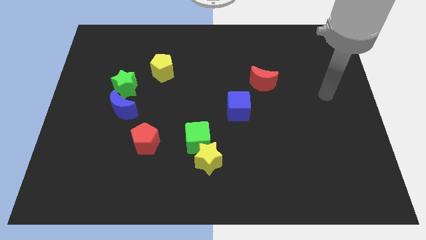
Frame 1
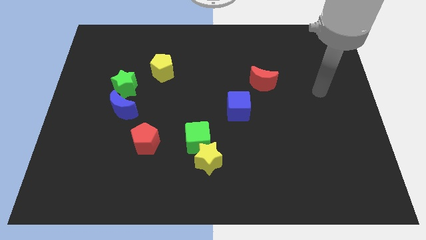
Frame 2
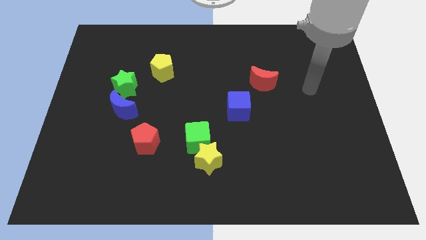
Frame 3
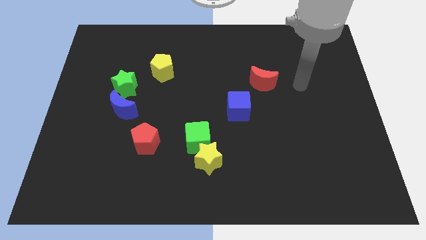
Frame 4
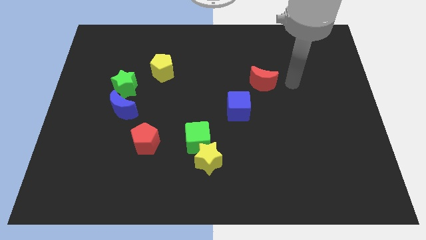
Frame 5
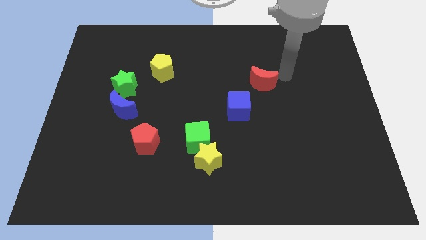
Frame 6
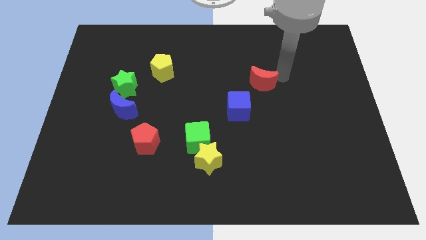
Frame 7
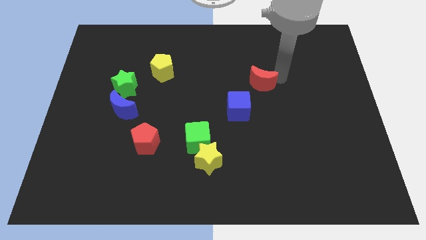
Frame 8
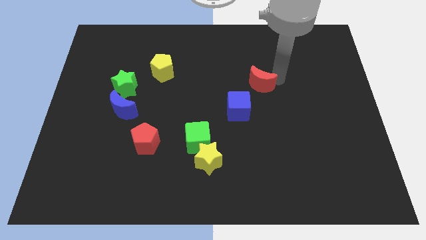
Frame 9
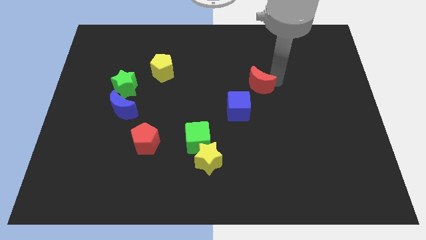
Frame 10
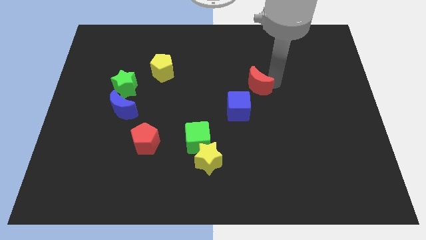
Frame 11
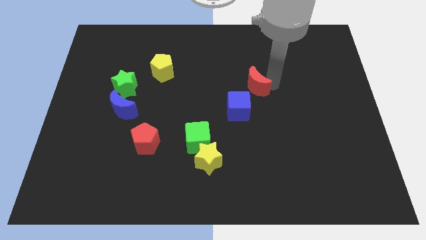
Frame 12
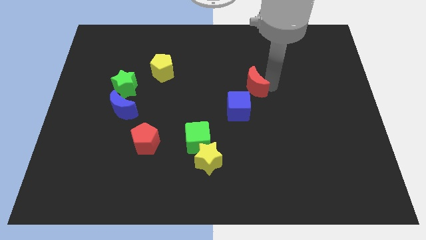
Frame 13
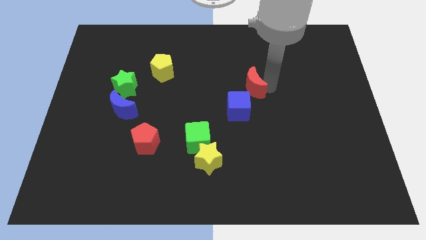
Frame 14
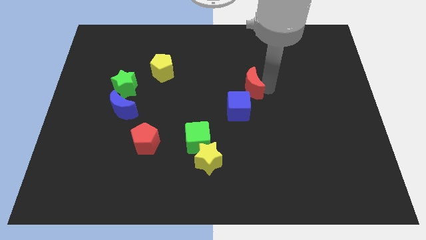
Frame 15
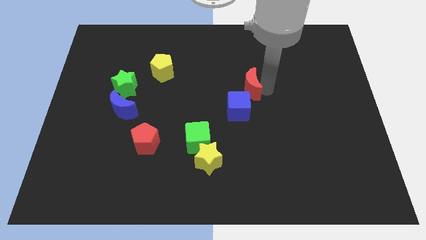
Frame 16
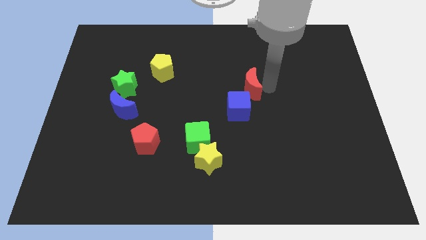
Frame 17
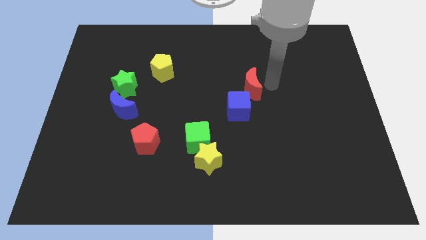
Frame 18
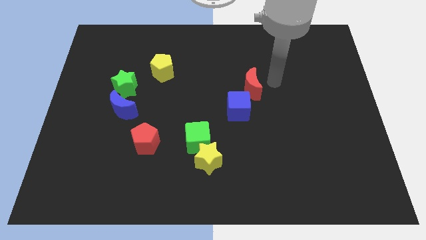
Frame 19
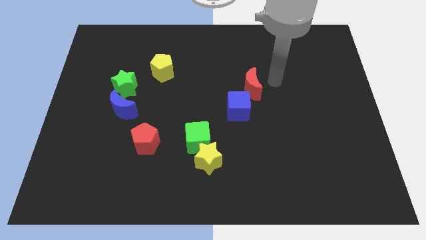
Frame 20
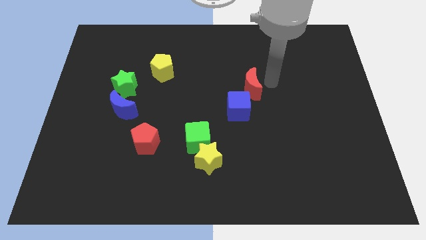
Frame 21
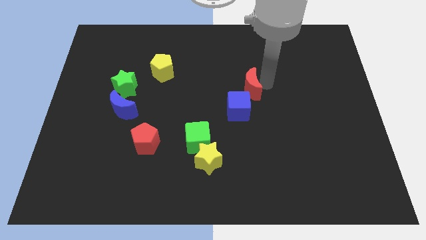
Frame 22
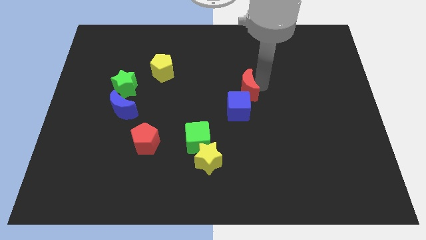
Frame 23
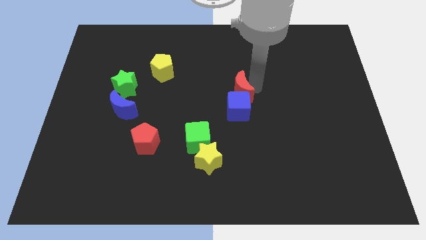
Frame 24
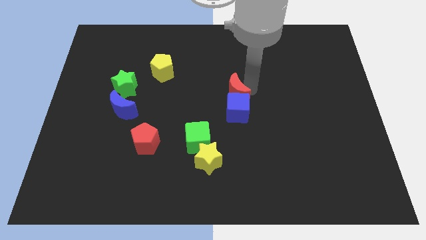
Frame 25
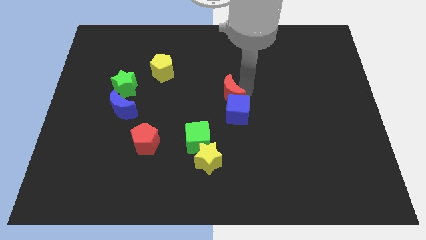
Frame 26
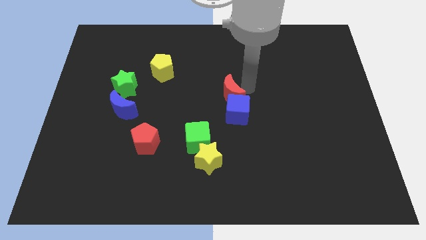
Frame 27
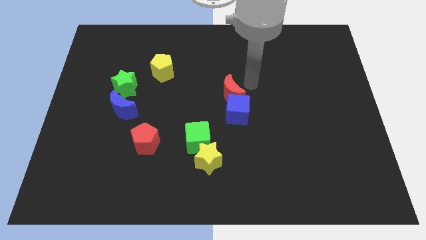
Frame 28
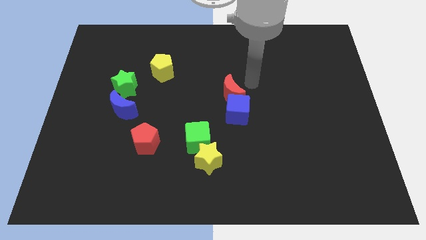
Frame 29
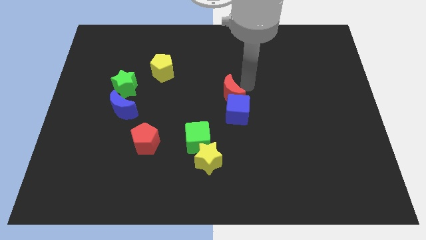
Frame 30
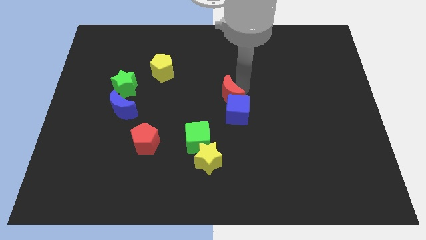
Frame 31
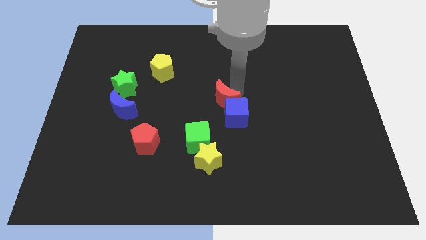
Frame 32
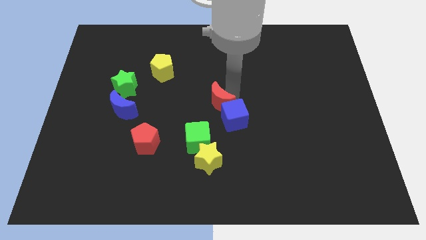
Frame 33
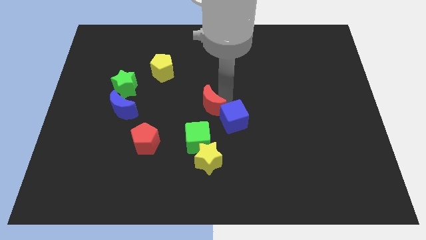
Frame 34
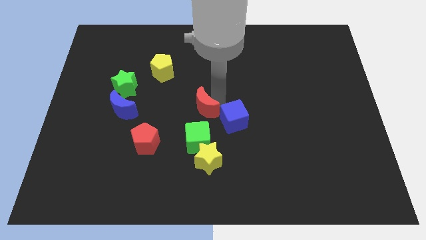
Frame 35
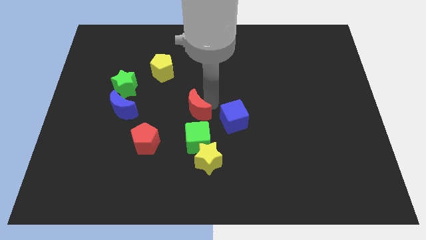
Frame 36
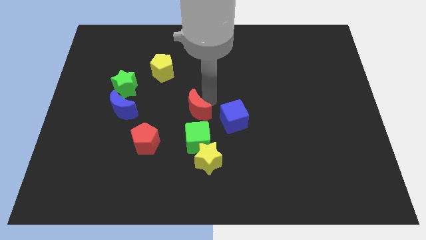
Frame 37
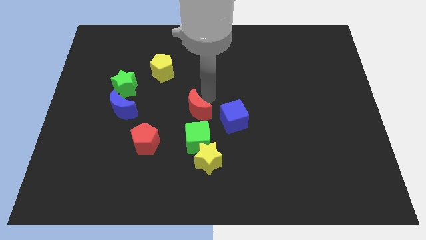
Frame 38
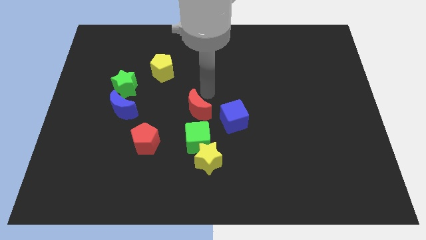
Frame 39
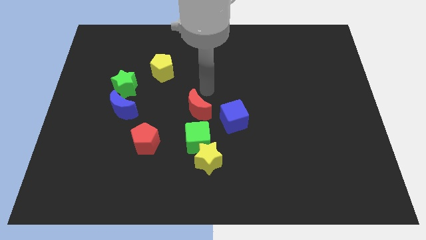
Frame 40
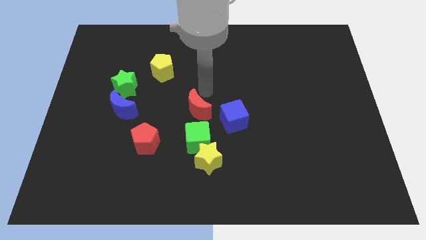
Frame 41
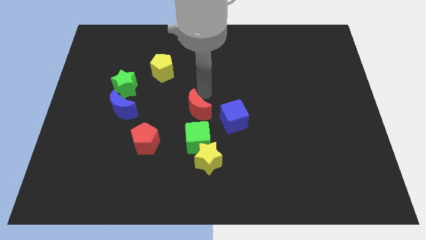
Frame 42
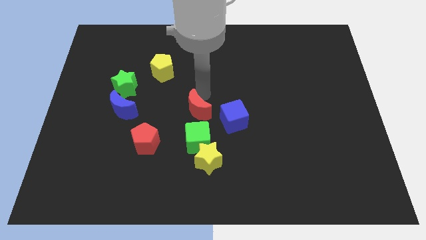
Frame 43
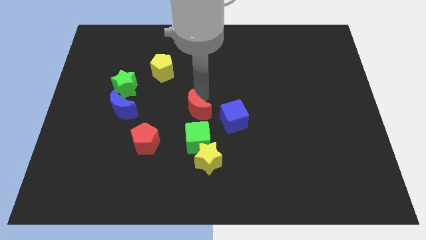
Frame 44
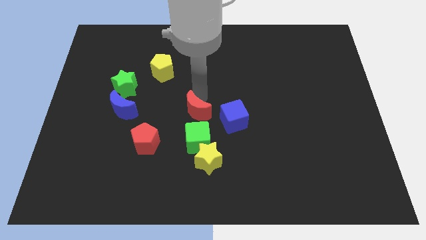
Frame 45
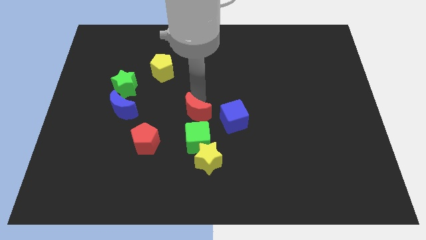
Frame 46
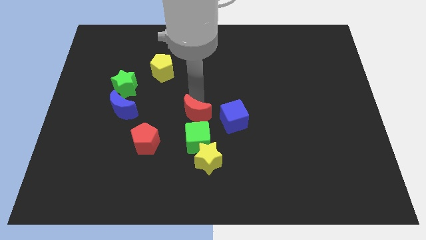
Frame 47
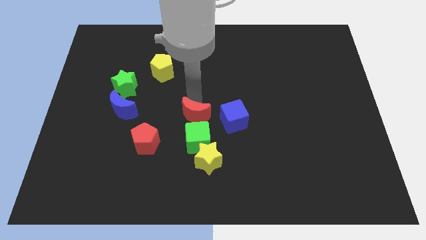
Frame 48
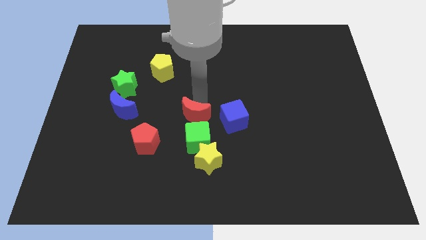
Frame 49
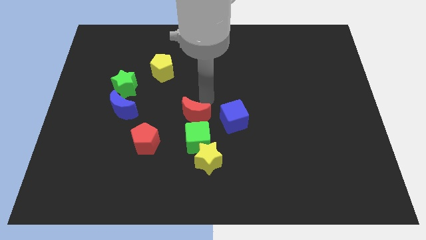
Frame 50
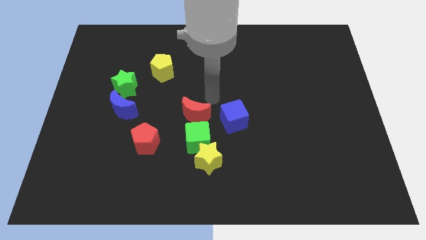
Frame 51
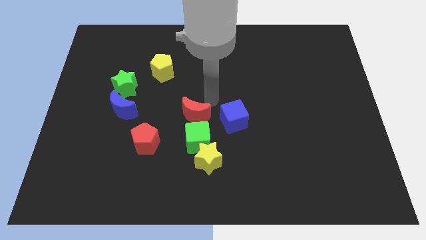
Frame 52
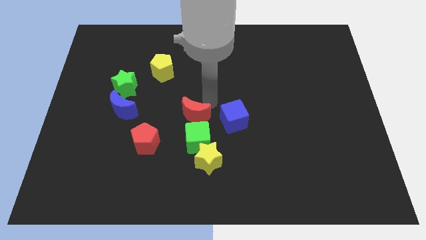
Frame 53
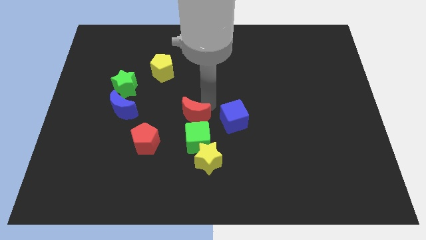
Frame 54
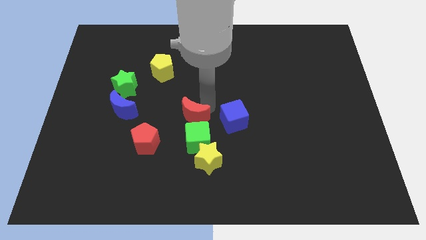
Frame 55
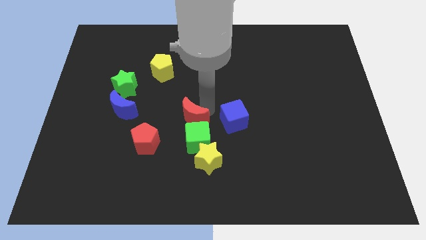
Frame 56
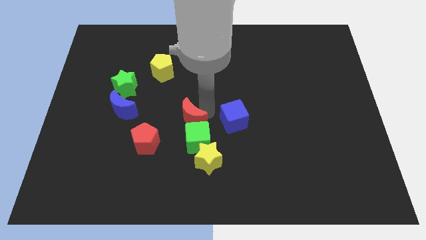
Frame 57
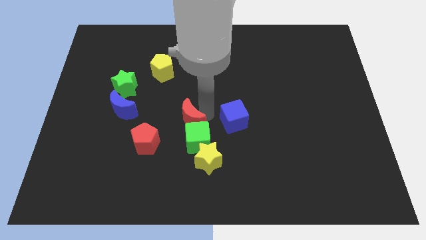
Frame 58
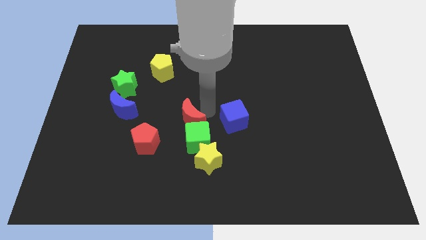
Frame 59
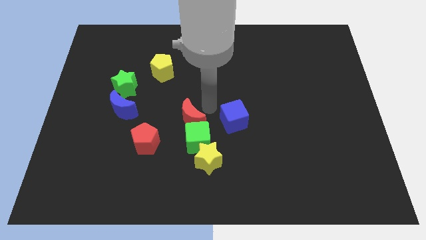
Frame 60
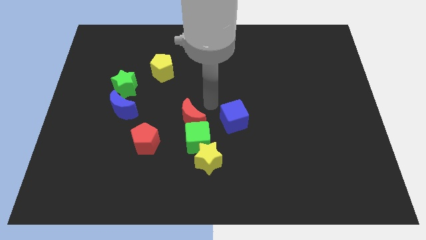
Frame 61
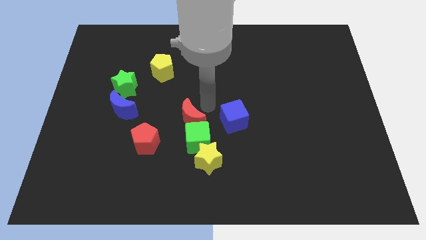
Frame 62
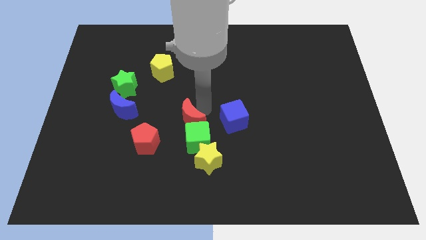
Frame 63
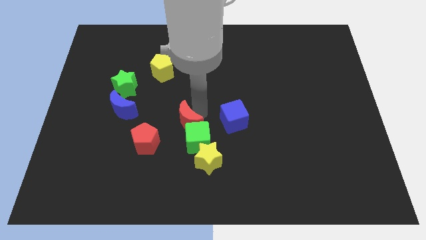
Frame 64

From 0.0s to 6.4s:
push the red moon downwards and left diagonally

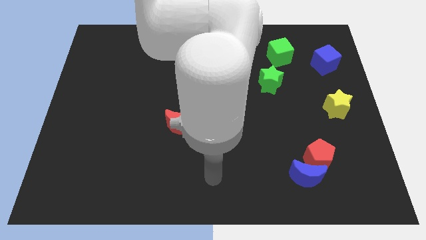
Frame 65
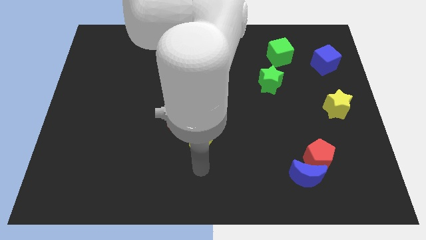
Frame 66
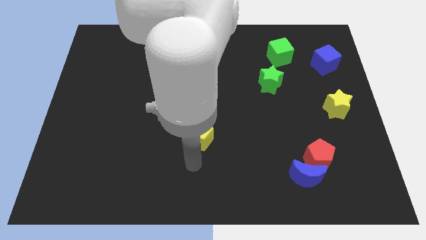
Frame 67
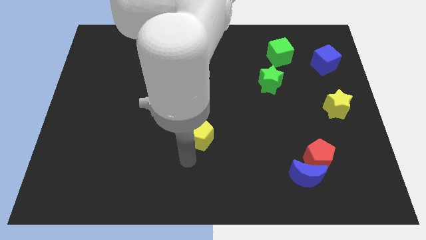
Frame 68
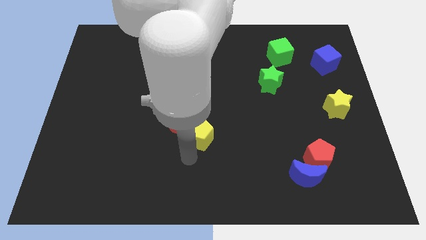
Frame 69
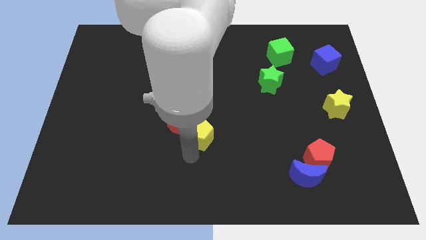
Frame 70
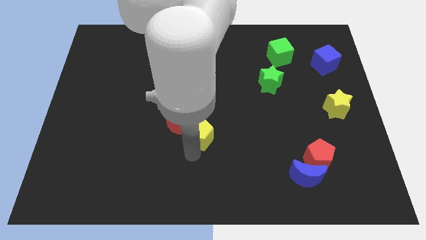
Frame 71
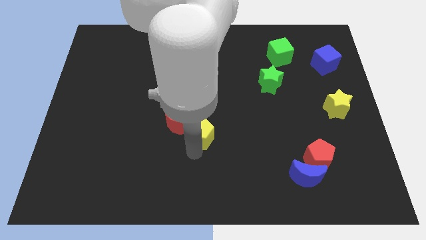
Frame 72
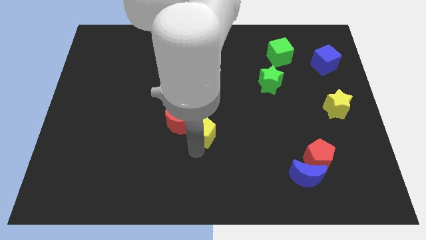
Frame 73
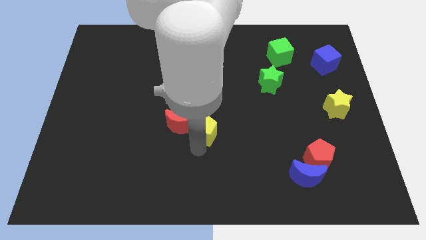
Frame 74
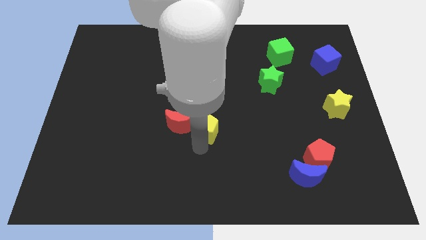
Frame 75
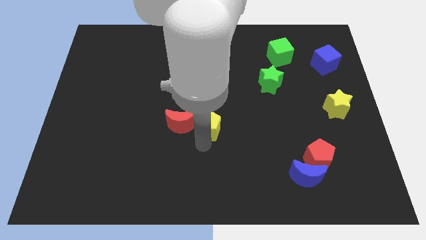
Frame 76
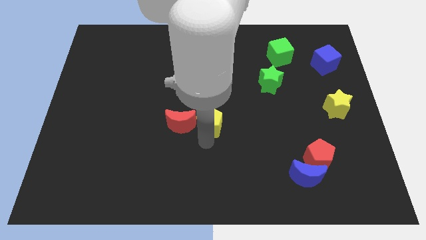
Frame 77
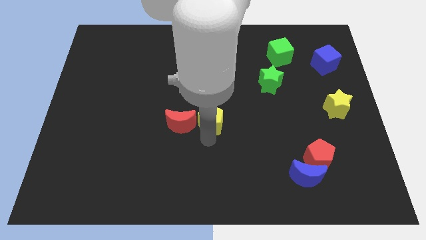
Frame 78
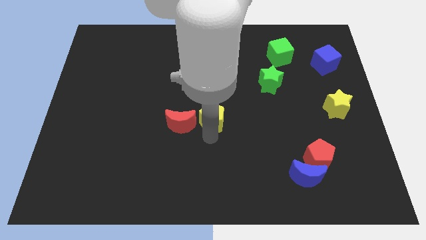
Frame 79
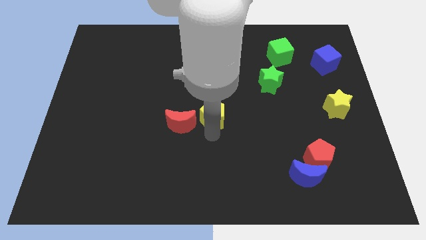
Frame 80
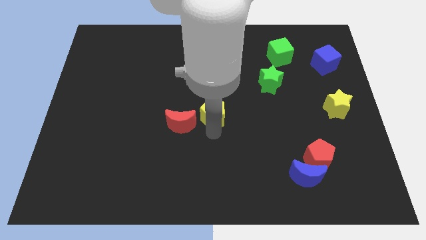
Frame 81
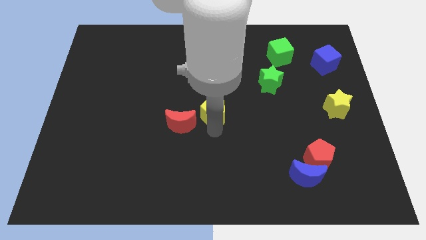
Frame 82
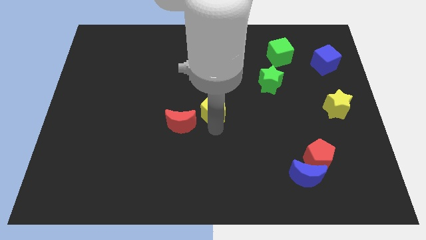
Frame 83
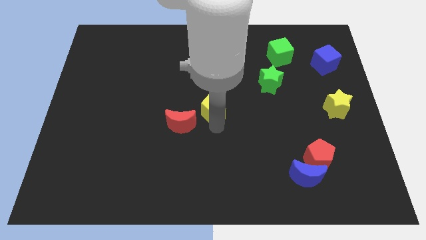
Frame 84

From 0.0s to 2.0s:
slightly slide the yellow pentagon up
